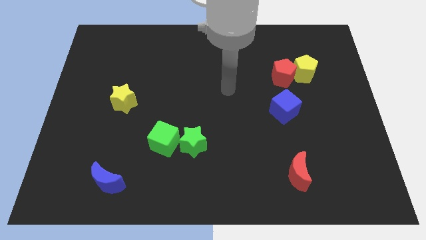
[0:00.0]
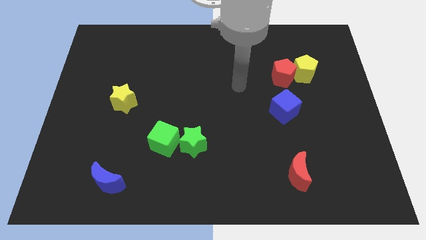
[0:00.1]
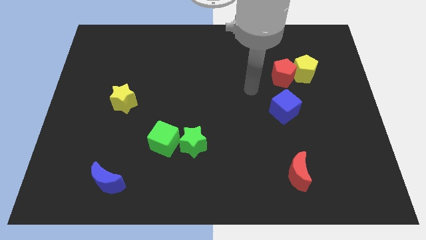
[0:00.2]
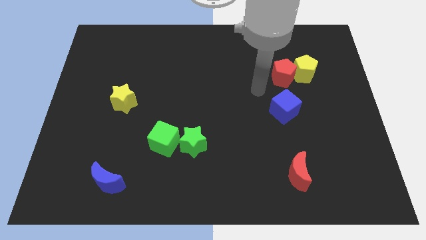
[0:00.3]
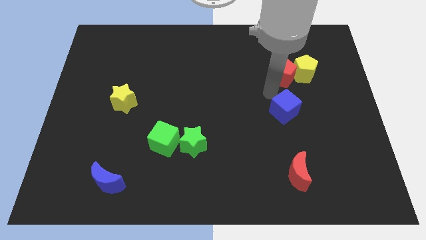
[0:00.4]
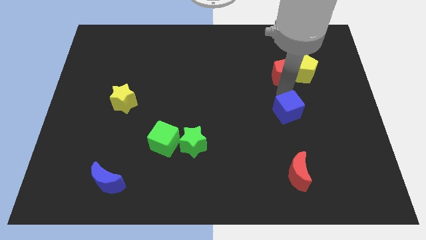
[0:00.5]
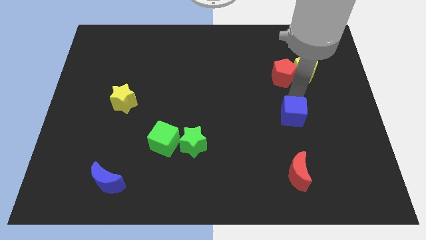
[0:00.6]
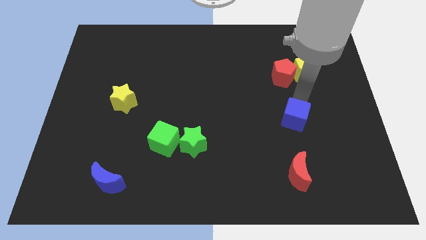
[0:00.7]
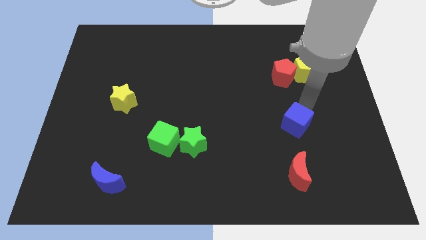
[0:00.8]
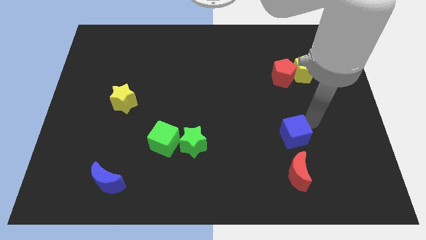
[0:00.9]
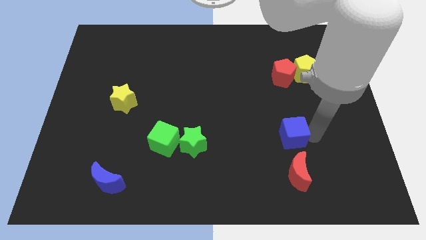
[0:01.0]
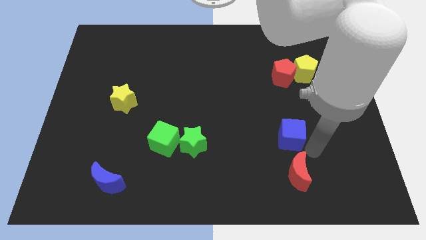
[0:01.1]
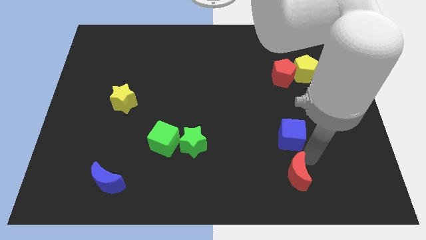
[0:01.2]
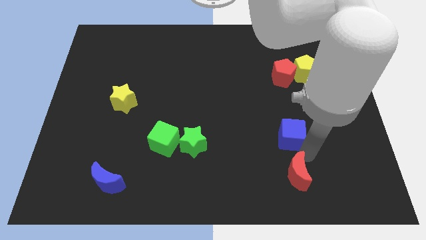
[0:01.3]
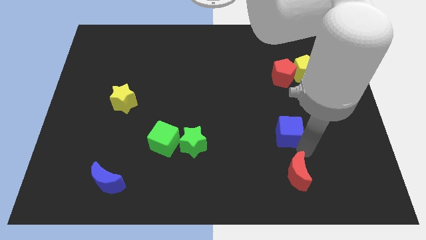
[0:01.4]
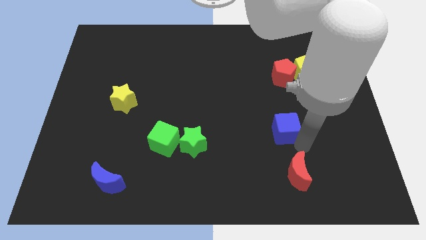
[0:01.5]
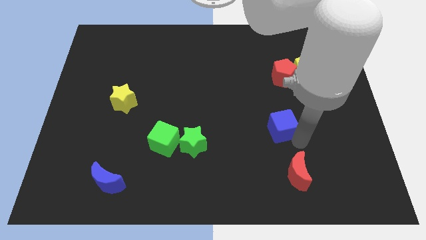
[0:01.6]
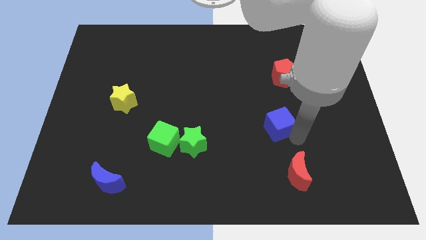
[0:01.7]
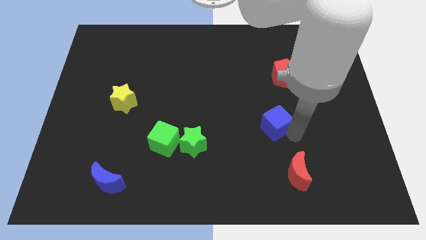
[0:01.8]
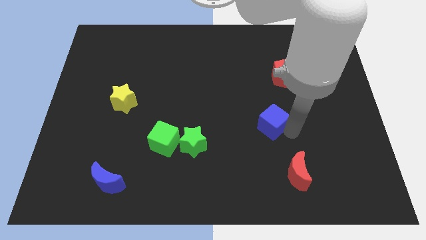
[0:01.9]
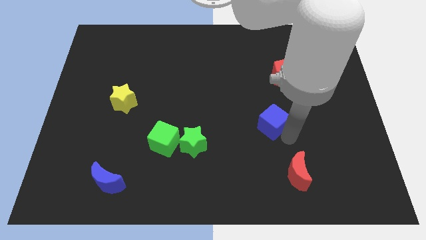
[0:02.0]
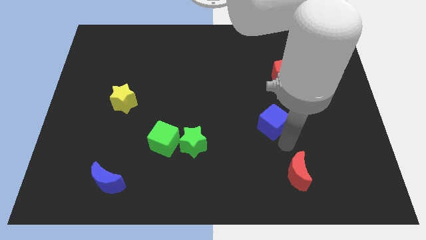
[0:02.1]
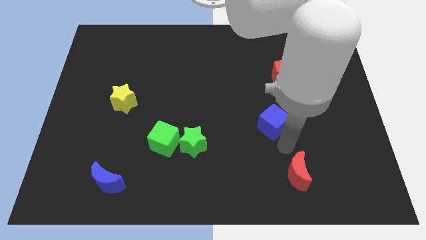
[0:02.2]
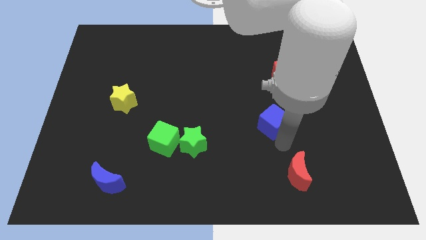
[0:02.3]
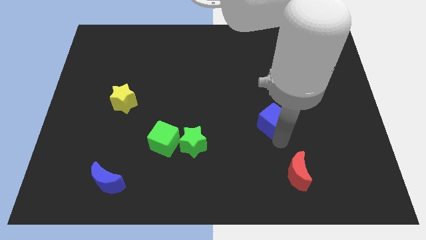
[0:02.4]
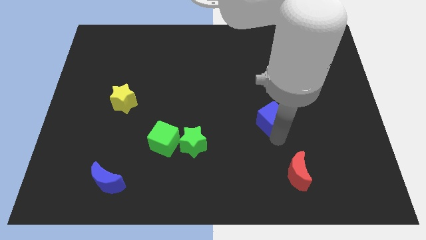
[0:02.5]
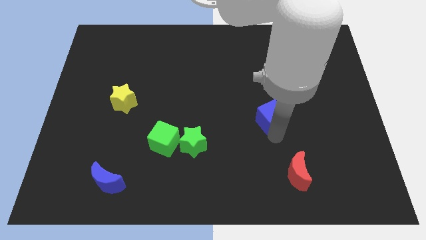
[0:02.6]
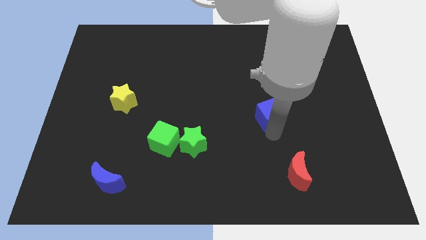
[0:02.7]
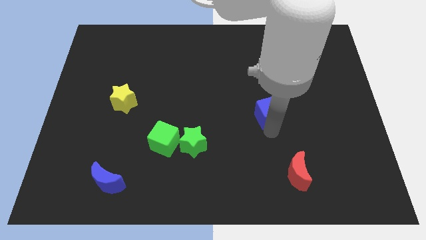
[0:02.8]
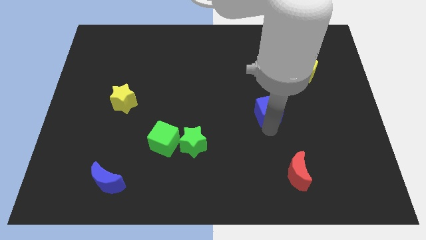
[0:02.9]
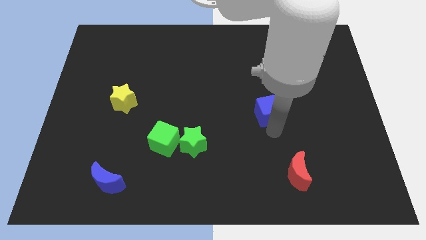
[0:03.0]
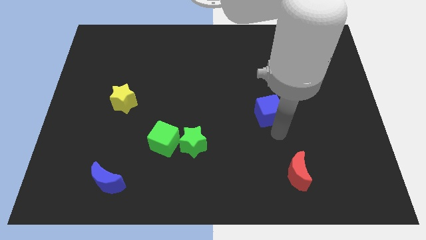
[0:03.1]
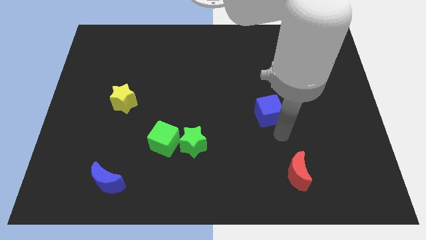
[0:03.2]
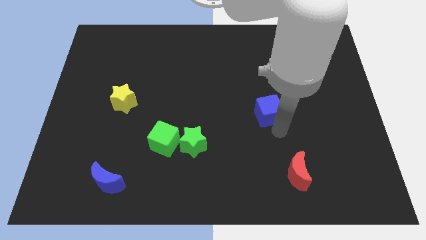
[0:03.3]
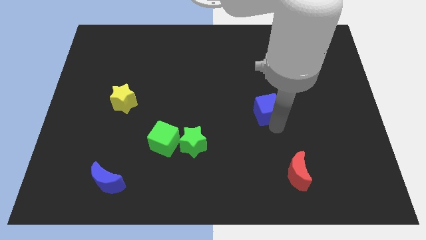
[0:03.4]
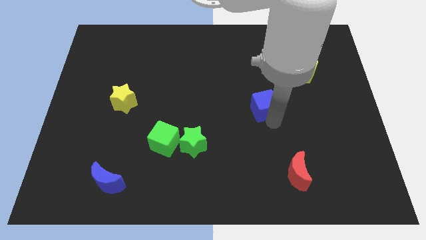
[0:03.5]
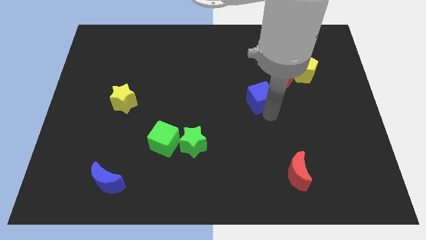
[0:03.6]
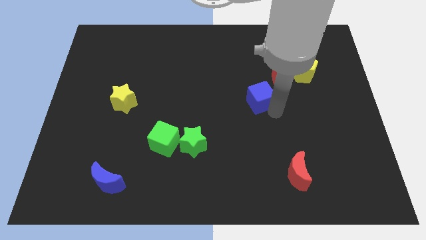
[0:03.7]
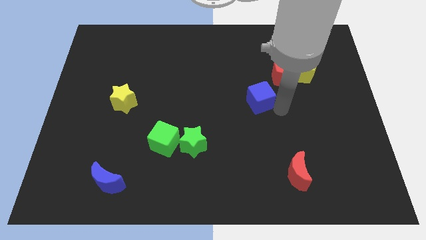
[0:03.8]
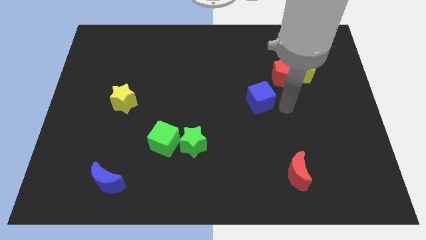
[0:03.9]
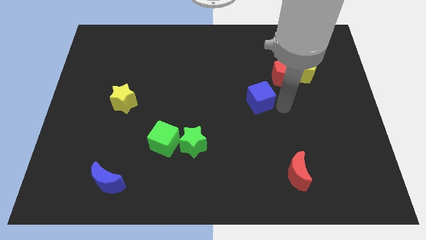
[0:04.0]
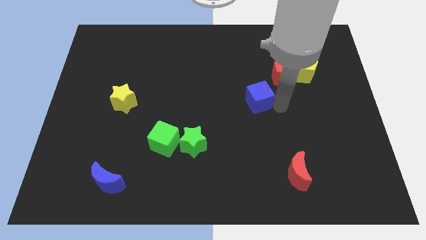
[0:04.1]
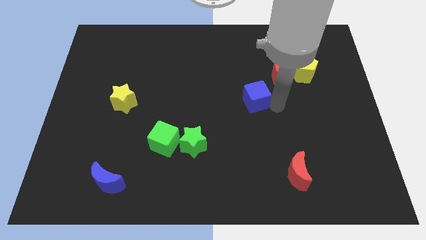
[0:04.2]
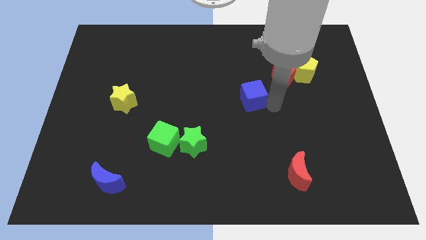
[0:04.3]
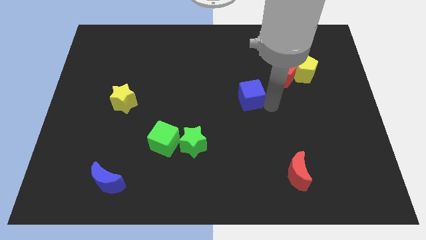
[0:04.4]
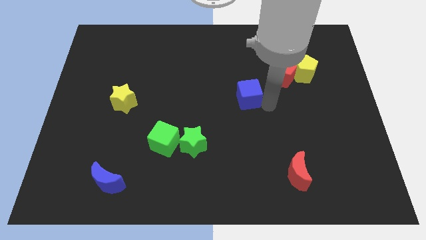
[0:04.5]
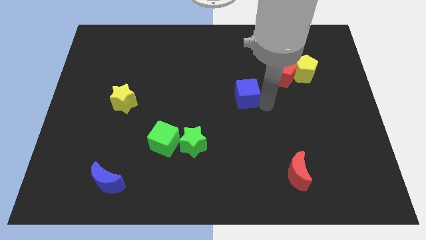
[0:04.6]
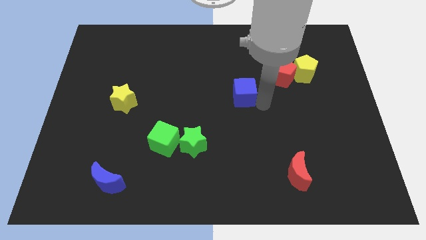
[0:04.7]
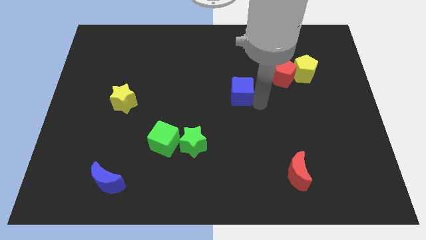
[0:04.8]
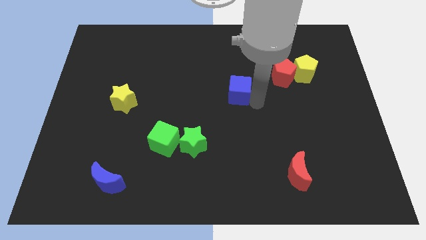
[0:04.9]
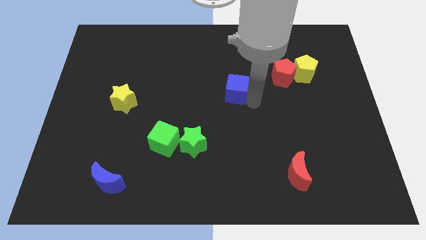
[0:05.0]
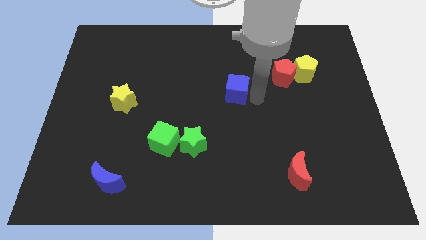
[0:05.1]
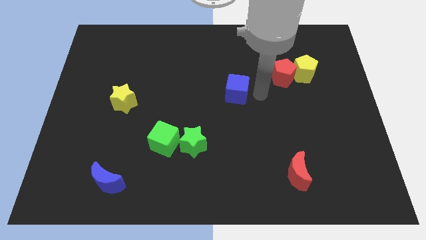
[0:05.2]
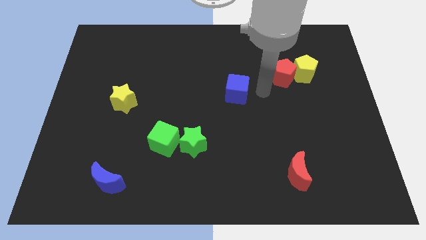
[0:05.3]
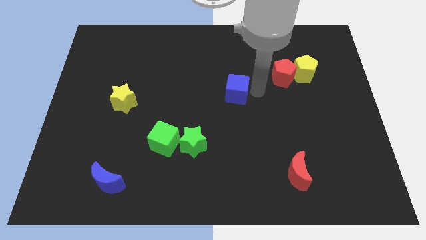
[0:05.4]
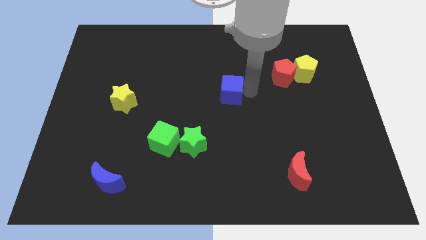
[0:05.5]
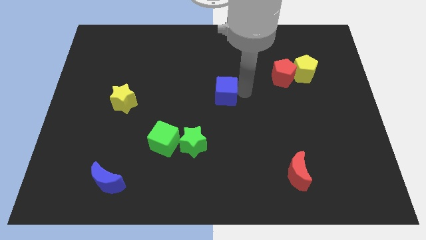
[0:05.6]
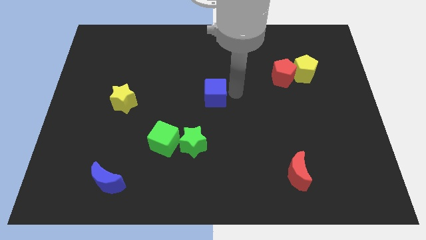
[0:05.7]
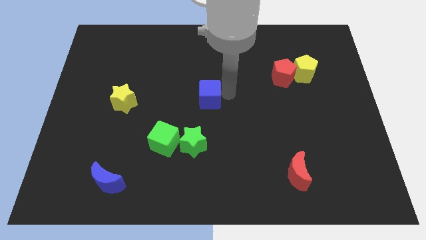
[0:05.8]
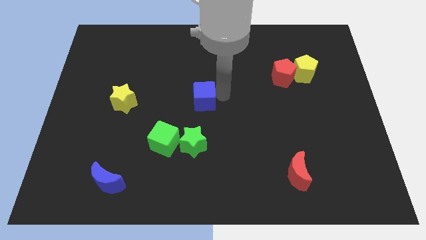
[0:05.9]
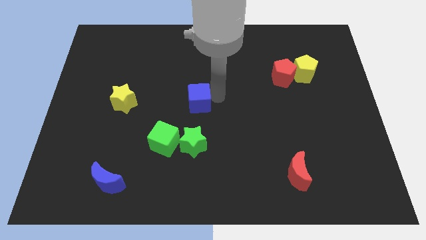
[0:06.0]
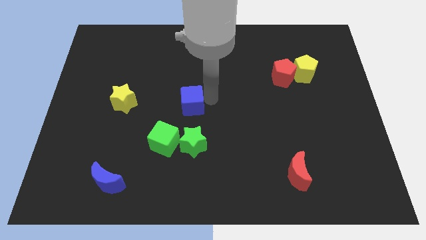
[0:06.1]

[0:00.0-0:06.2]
move the blue cube to the right of the yellow star

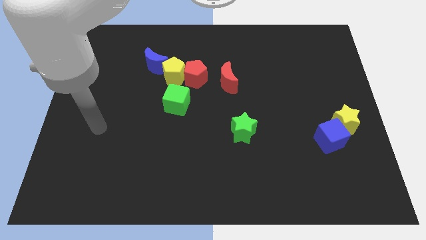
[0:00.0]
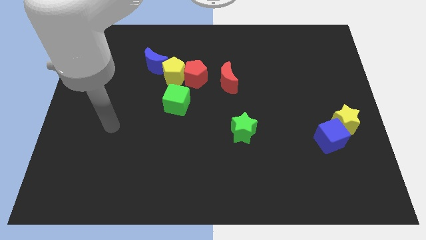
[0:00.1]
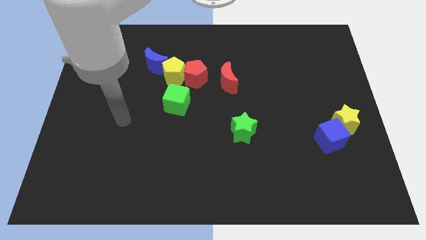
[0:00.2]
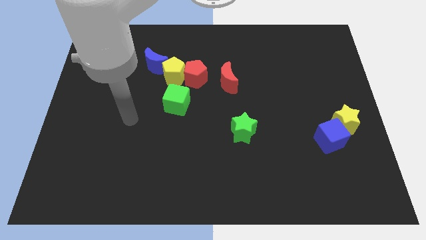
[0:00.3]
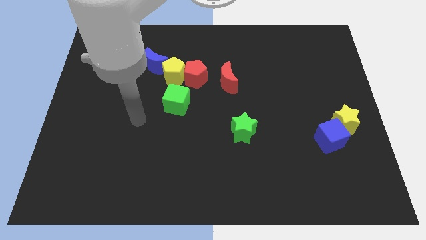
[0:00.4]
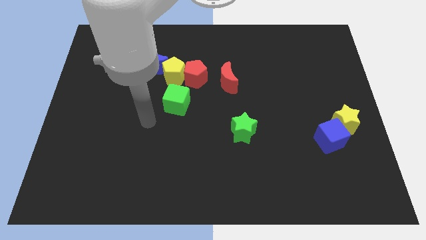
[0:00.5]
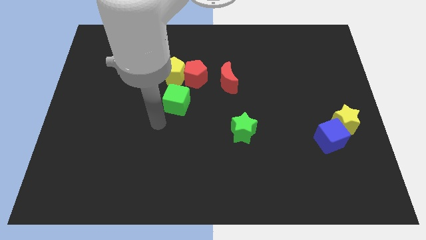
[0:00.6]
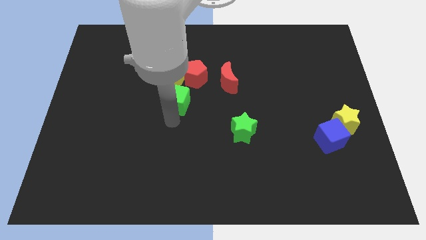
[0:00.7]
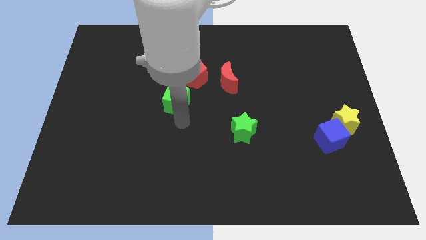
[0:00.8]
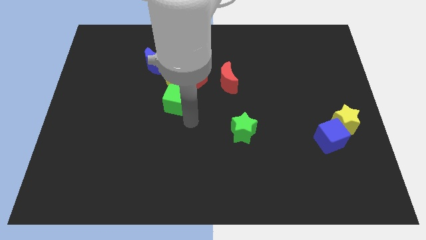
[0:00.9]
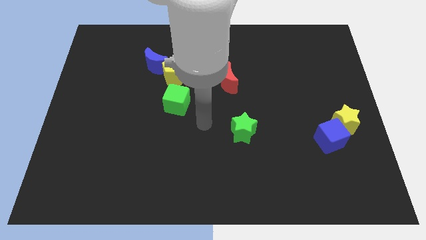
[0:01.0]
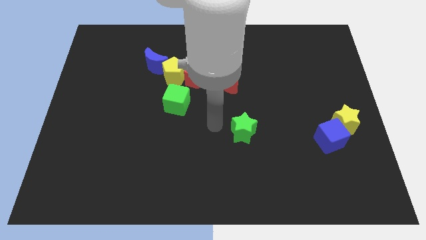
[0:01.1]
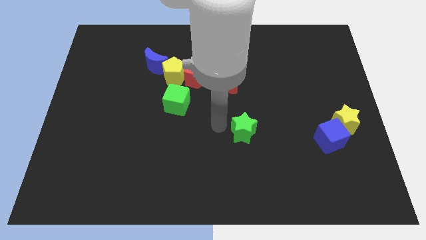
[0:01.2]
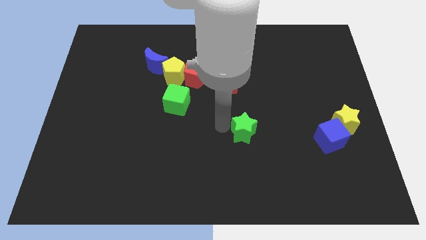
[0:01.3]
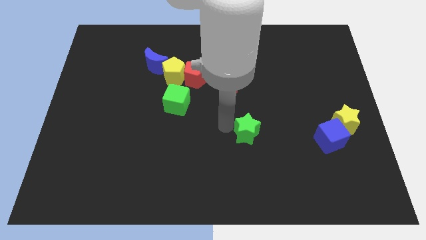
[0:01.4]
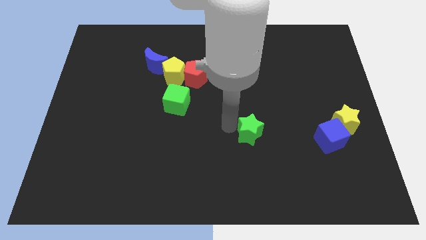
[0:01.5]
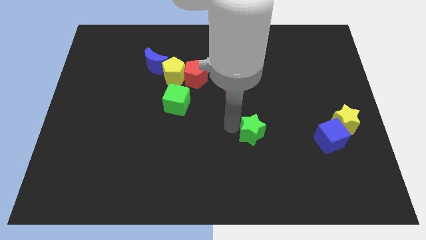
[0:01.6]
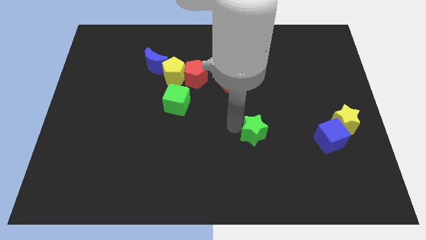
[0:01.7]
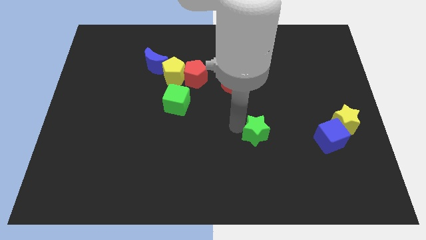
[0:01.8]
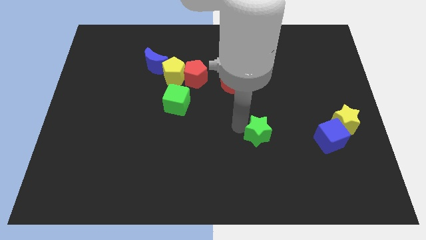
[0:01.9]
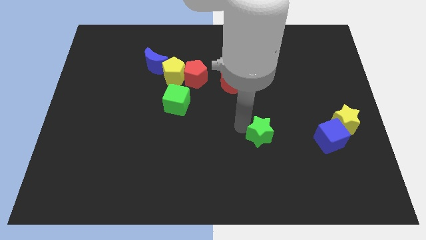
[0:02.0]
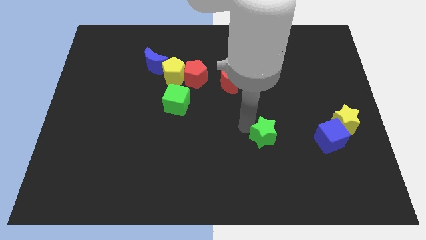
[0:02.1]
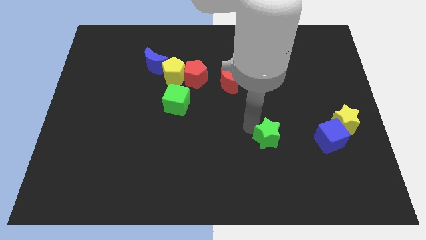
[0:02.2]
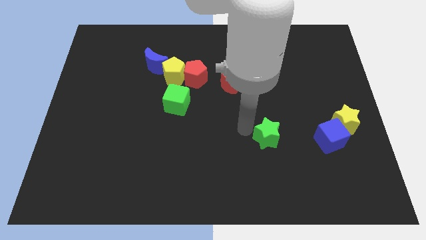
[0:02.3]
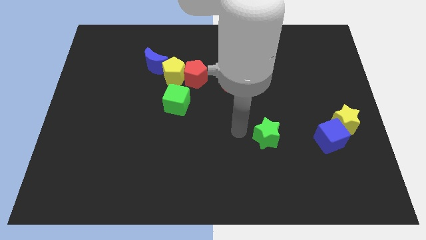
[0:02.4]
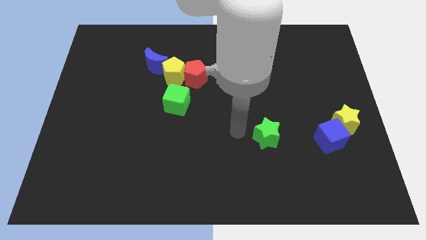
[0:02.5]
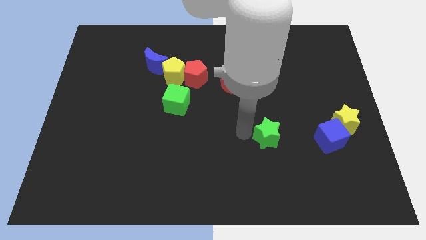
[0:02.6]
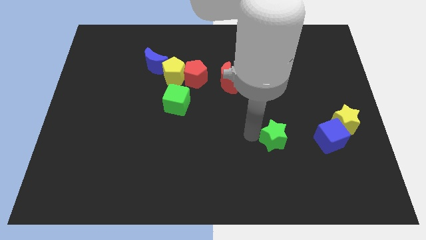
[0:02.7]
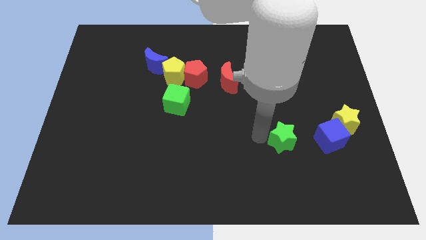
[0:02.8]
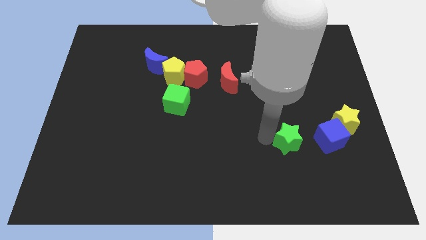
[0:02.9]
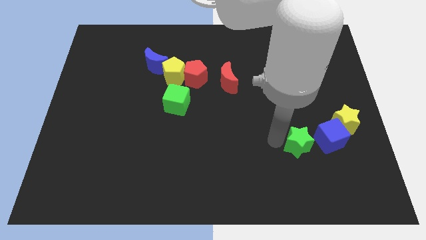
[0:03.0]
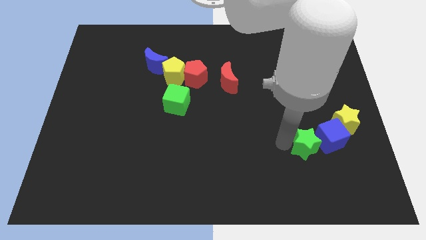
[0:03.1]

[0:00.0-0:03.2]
put the green star diagonally down and to the left of the yellow star
